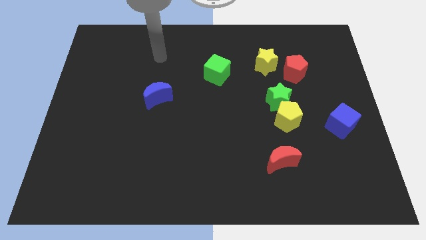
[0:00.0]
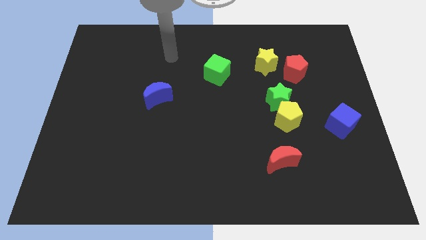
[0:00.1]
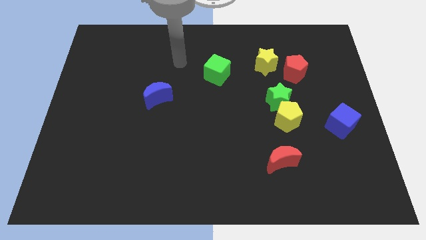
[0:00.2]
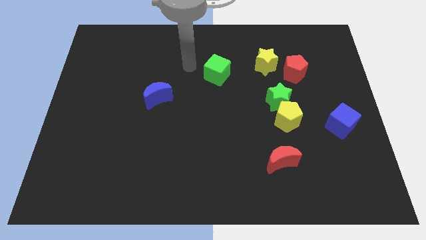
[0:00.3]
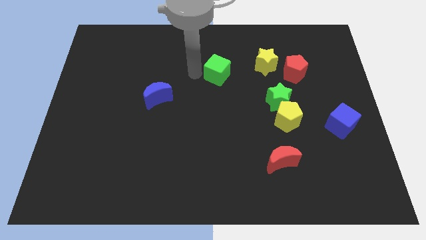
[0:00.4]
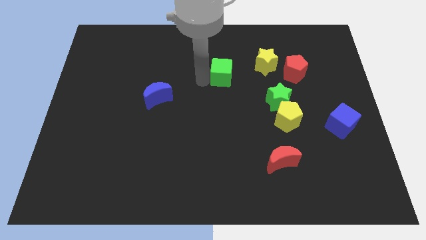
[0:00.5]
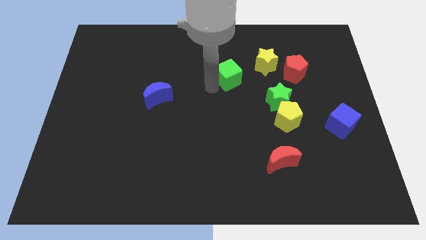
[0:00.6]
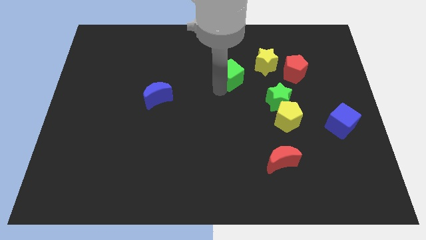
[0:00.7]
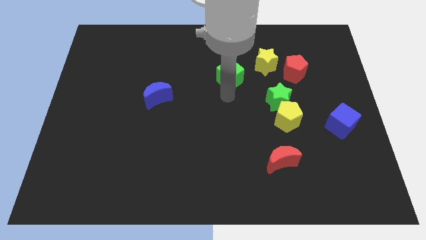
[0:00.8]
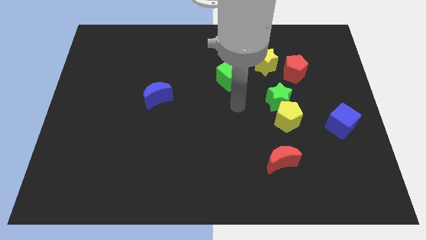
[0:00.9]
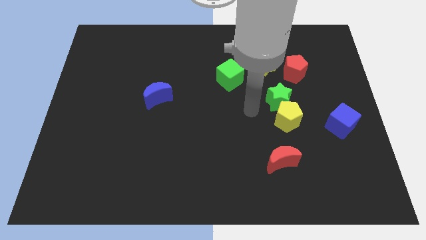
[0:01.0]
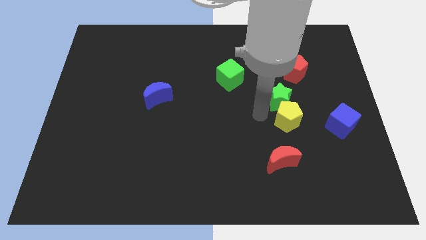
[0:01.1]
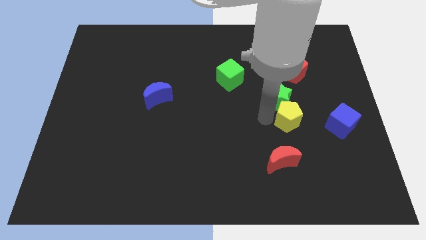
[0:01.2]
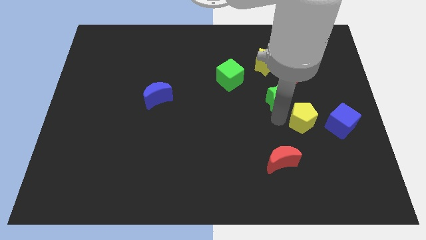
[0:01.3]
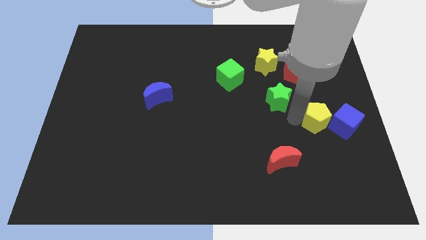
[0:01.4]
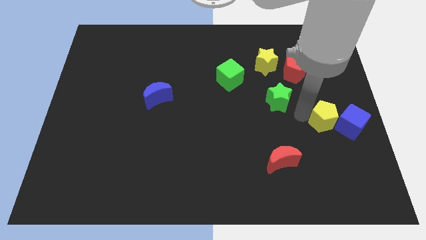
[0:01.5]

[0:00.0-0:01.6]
pull the green star apart from the yellow pentagon

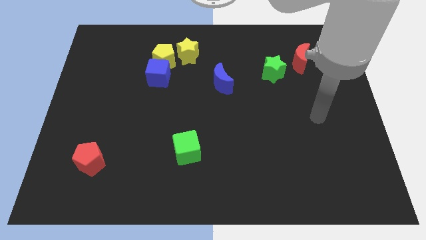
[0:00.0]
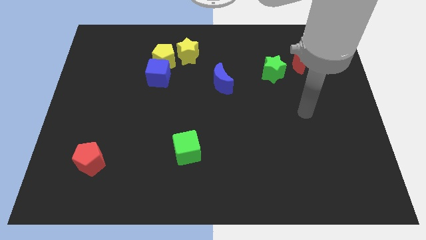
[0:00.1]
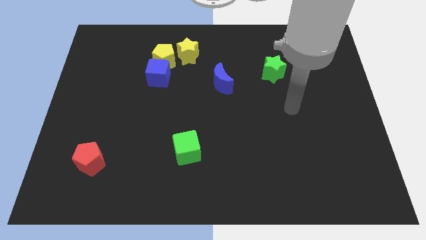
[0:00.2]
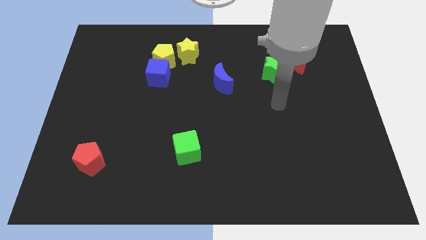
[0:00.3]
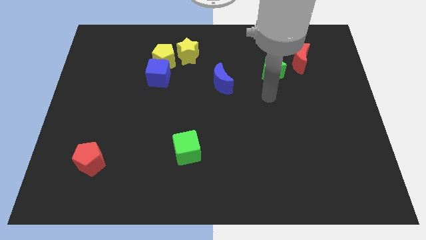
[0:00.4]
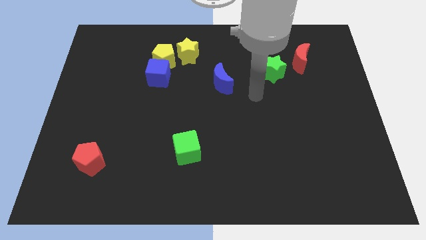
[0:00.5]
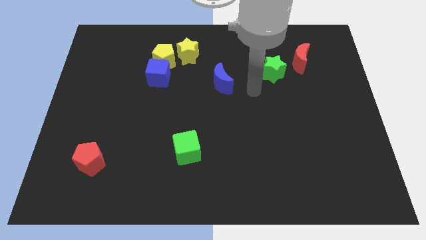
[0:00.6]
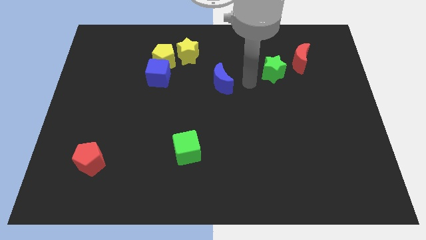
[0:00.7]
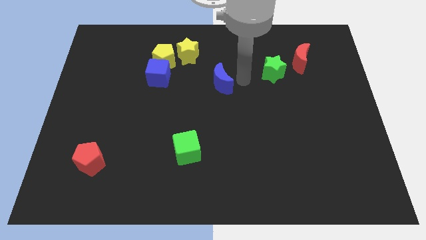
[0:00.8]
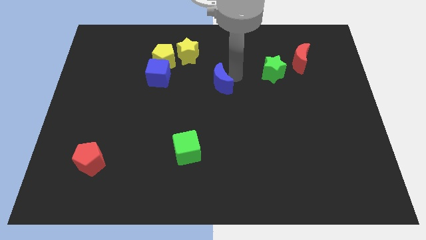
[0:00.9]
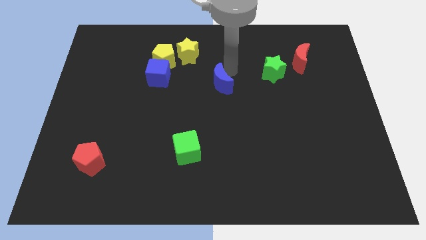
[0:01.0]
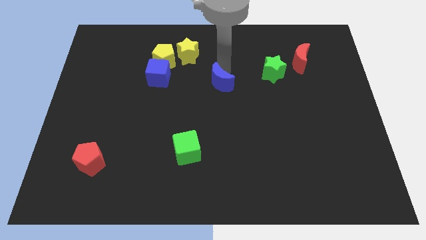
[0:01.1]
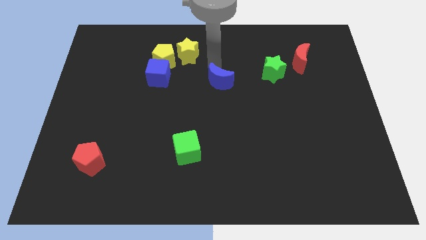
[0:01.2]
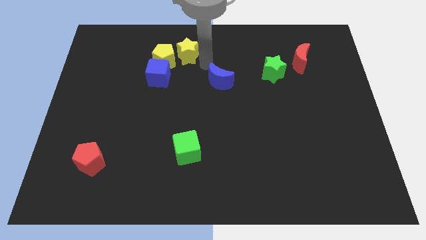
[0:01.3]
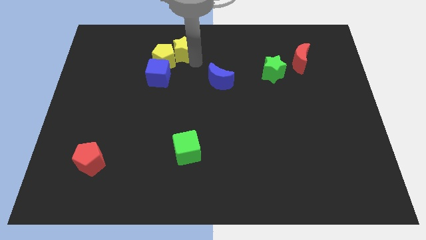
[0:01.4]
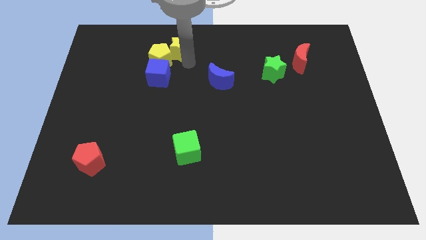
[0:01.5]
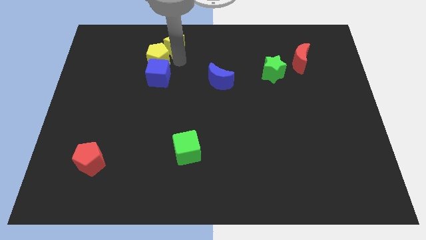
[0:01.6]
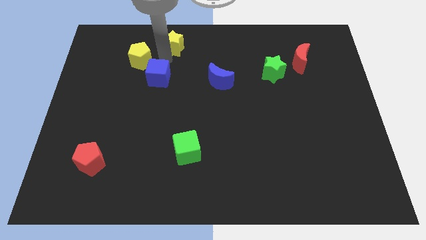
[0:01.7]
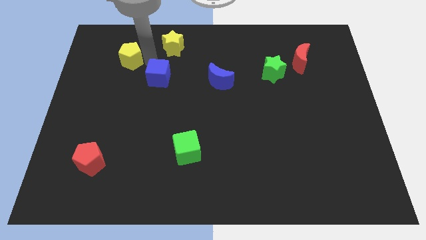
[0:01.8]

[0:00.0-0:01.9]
separate the blue cube from the yellow pentagon

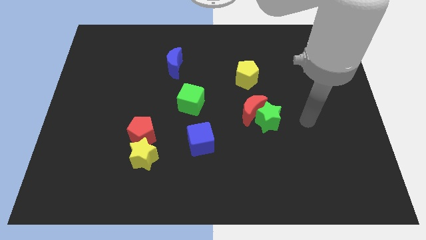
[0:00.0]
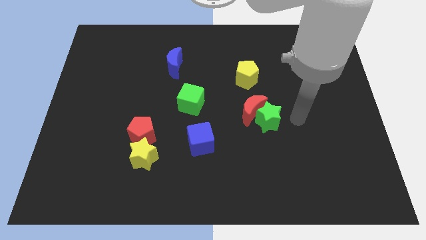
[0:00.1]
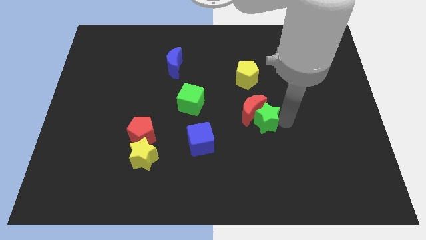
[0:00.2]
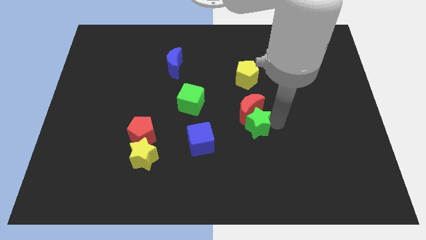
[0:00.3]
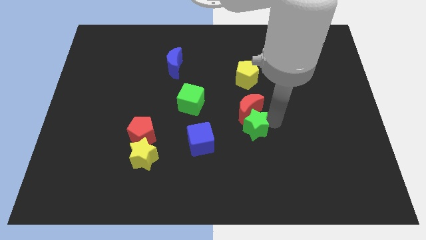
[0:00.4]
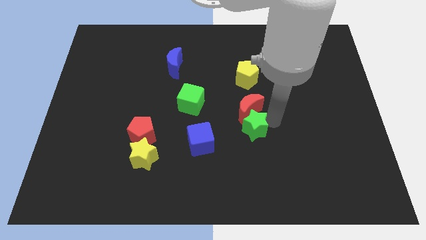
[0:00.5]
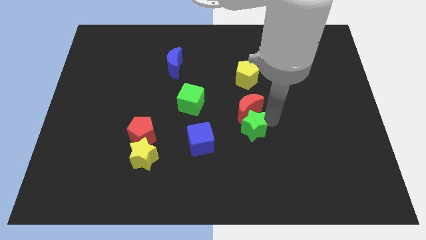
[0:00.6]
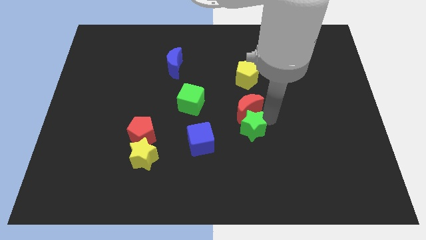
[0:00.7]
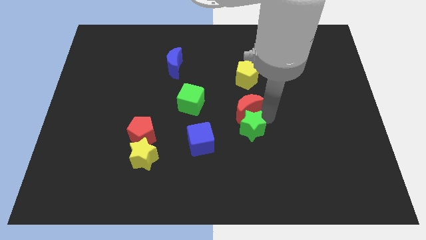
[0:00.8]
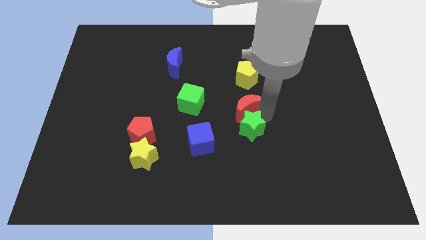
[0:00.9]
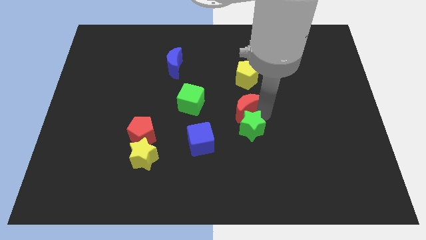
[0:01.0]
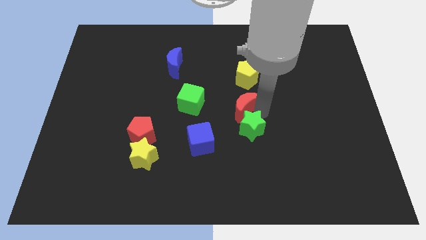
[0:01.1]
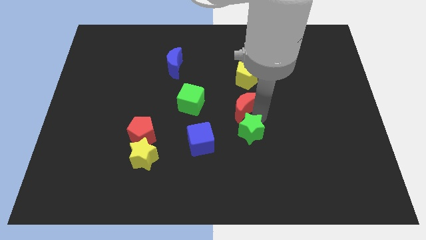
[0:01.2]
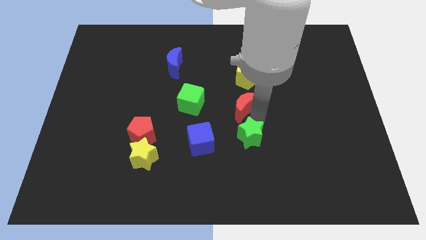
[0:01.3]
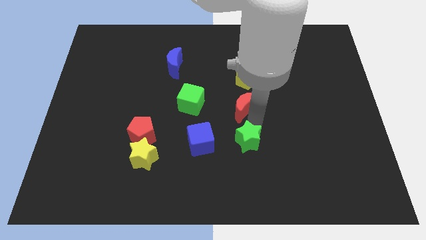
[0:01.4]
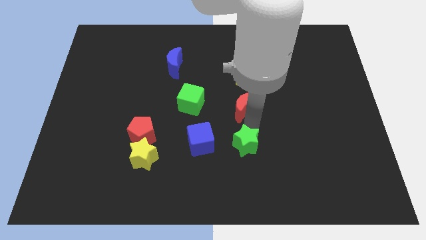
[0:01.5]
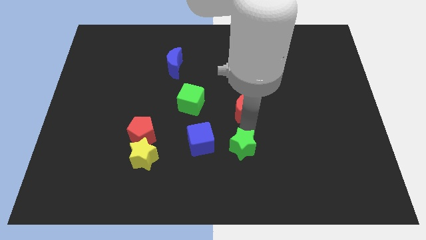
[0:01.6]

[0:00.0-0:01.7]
separate the red moon from the green star

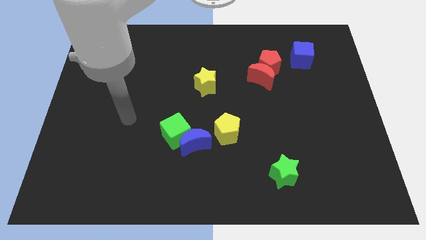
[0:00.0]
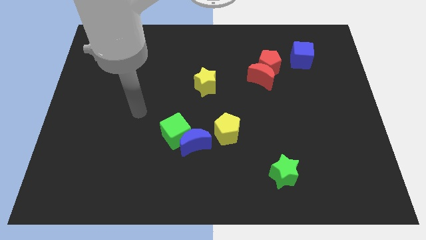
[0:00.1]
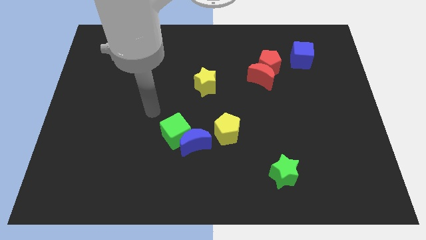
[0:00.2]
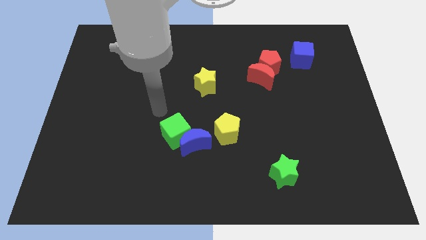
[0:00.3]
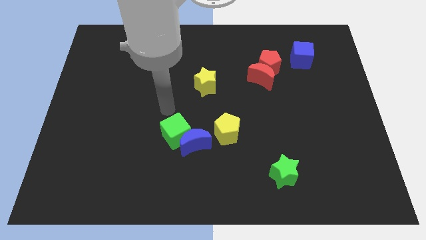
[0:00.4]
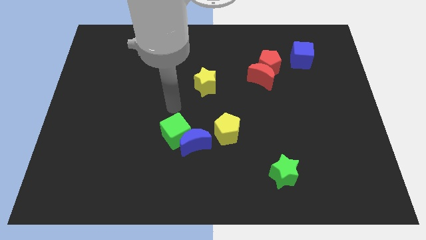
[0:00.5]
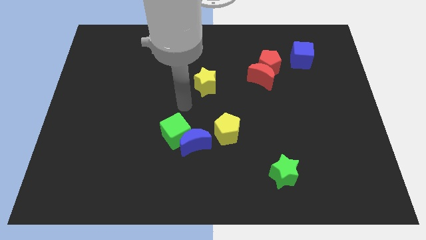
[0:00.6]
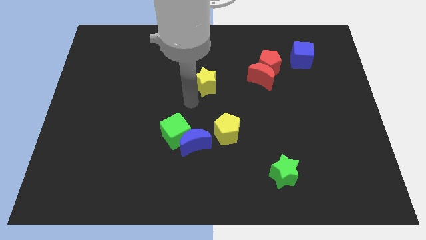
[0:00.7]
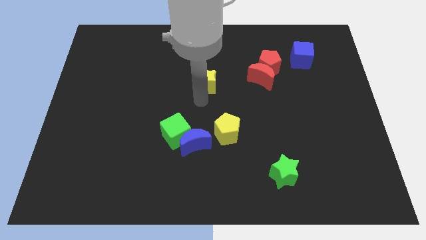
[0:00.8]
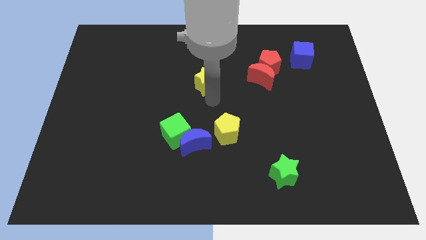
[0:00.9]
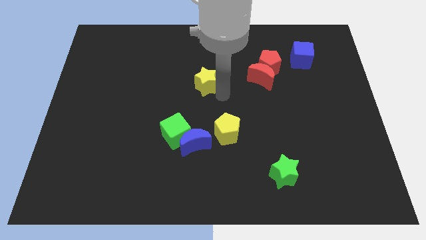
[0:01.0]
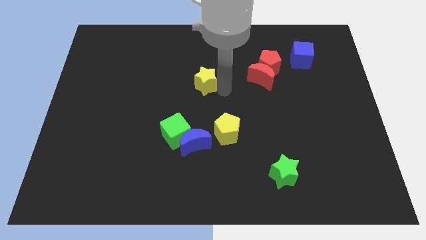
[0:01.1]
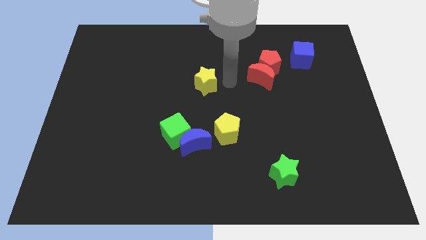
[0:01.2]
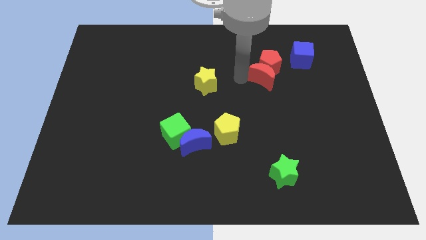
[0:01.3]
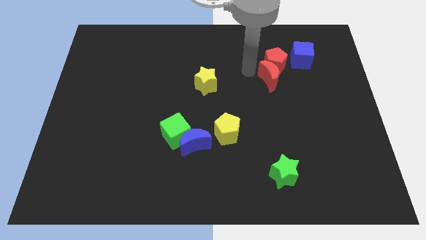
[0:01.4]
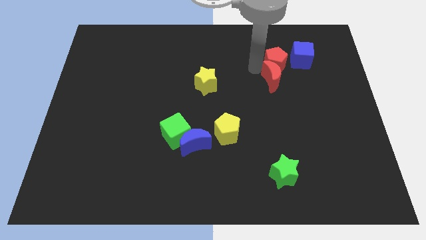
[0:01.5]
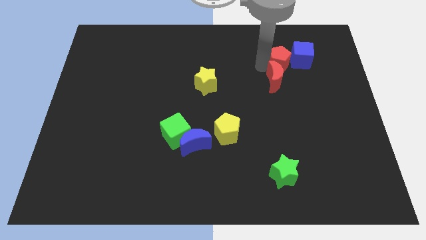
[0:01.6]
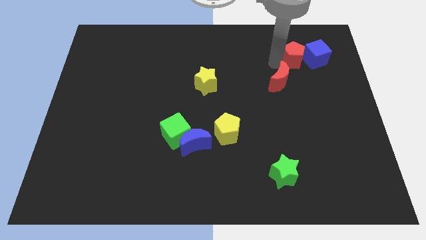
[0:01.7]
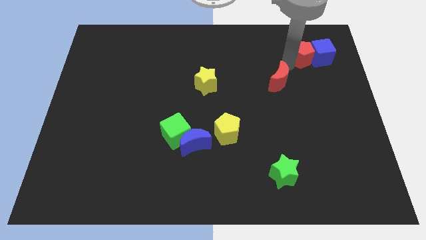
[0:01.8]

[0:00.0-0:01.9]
move the red moon away from the red pentagon

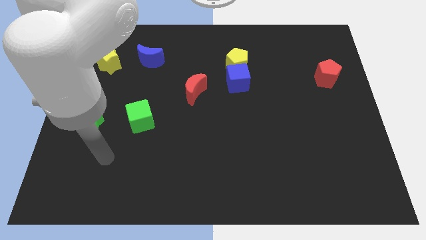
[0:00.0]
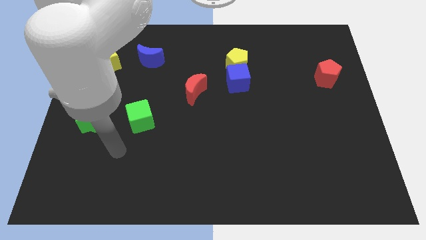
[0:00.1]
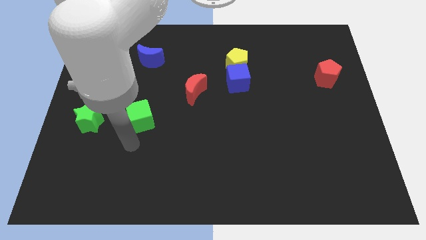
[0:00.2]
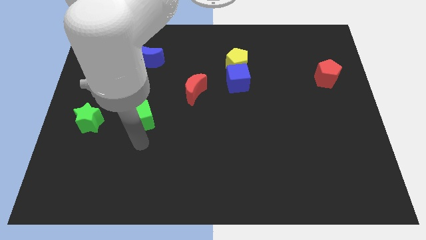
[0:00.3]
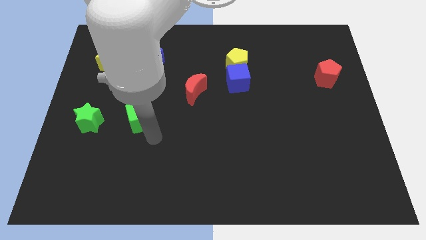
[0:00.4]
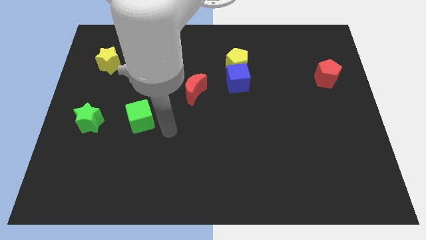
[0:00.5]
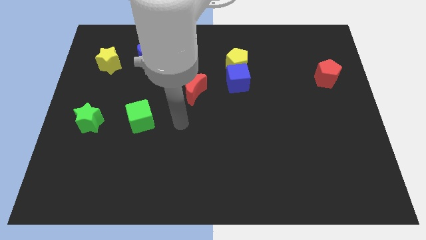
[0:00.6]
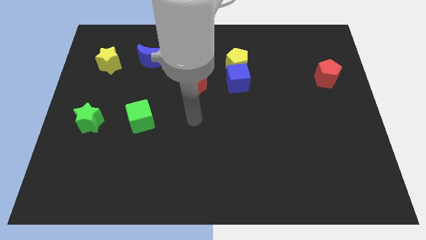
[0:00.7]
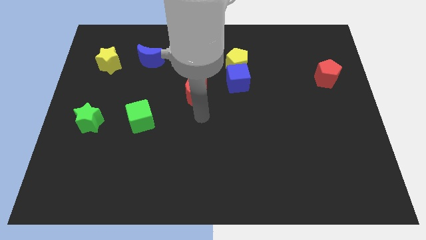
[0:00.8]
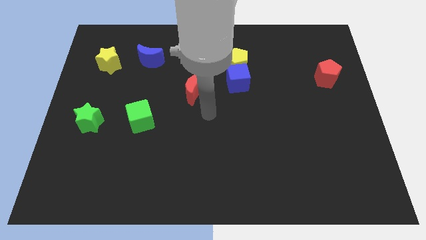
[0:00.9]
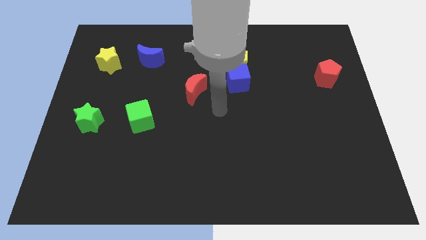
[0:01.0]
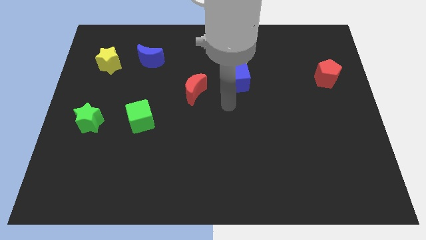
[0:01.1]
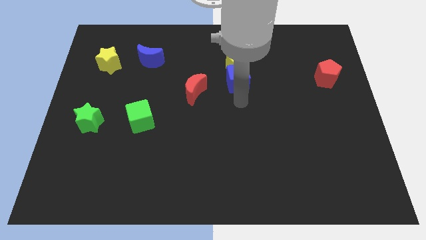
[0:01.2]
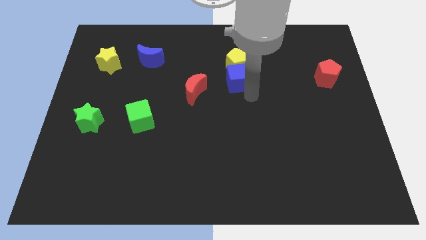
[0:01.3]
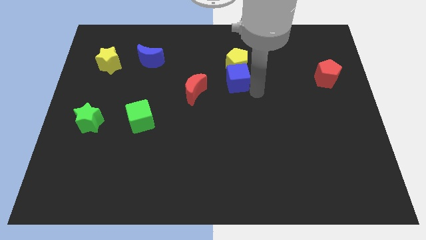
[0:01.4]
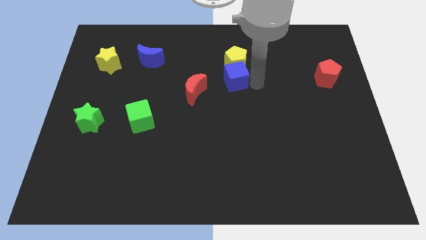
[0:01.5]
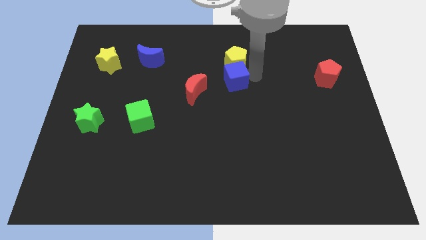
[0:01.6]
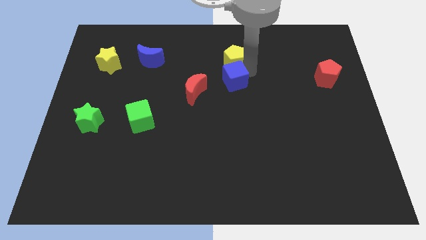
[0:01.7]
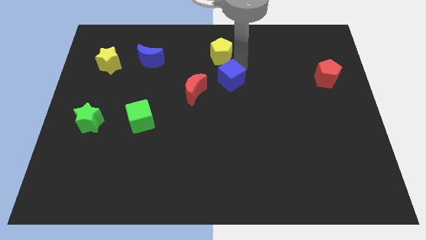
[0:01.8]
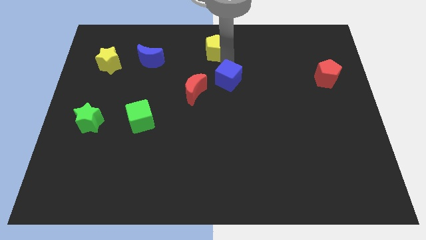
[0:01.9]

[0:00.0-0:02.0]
pull the blue cube apart from the yellow pentagon

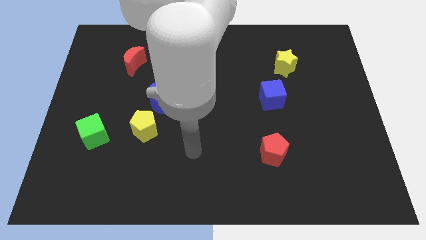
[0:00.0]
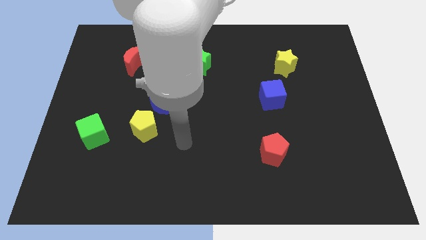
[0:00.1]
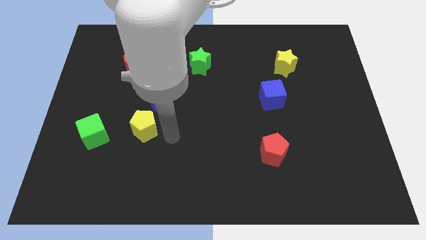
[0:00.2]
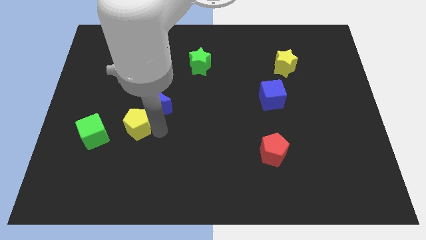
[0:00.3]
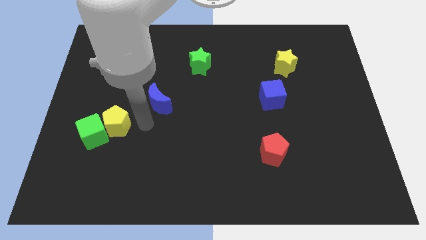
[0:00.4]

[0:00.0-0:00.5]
pull the blue moon apart from the yellow pentagon
